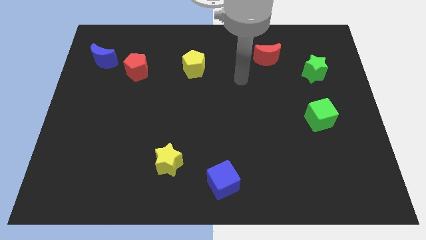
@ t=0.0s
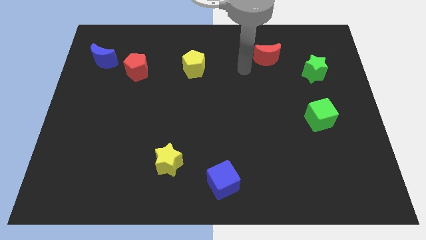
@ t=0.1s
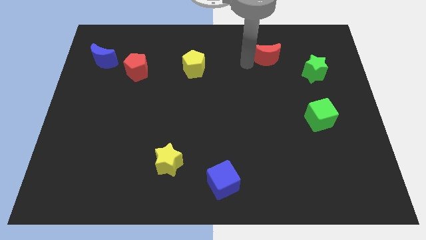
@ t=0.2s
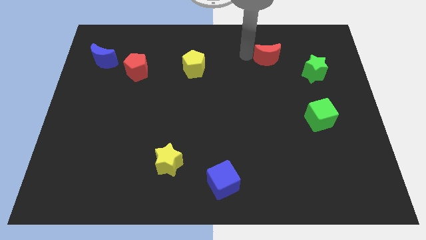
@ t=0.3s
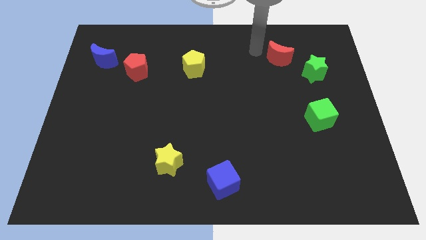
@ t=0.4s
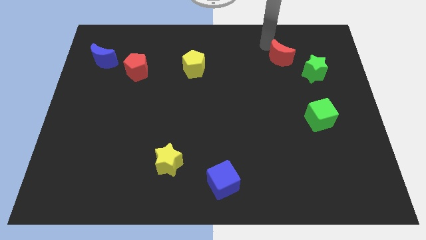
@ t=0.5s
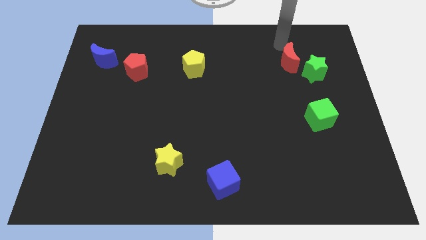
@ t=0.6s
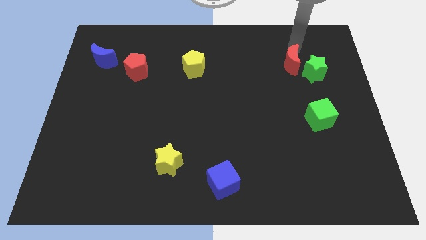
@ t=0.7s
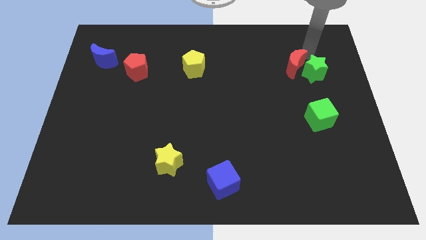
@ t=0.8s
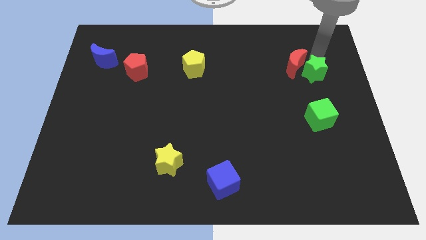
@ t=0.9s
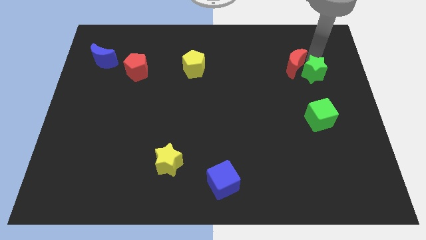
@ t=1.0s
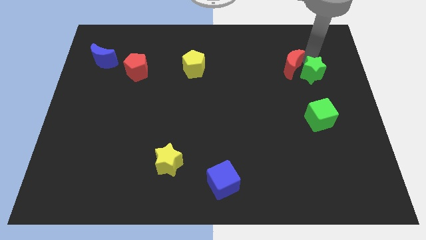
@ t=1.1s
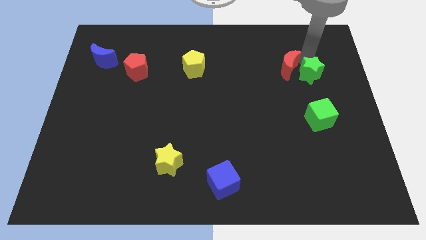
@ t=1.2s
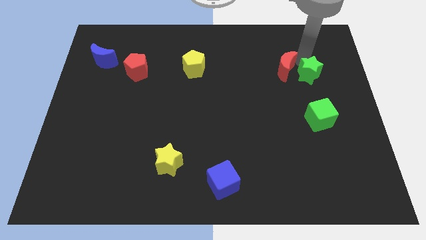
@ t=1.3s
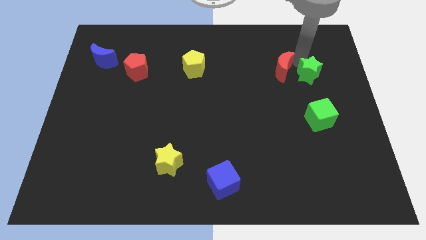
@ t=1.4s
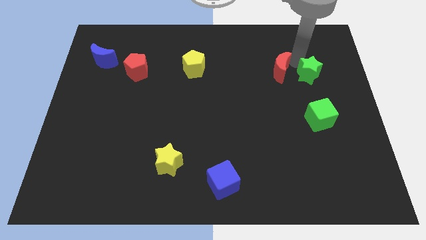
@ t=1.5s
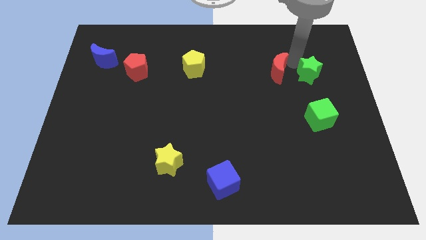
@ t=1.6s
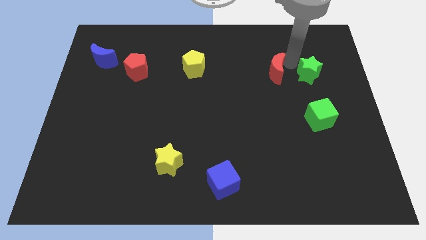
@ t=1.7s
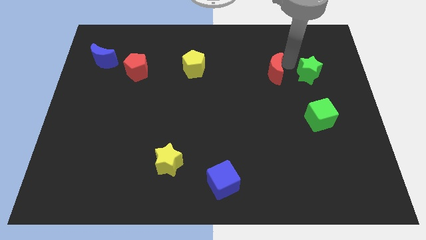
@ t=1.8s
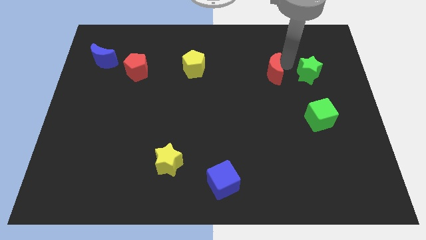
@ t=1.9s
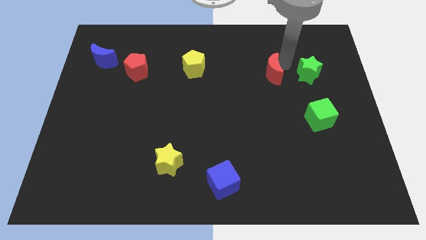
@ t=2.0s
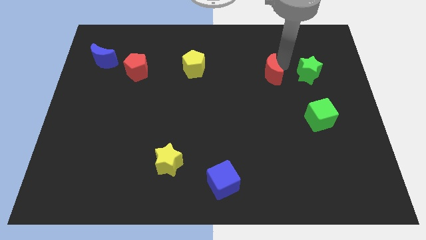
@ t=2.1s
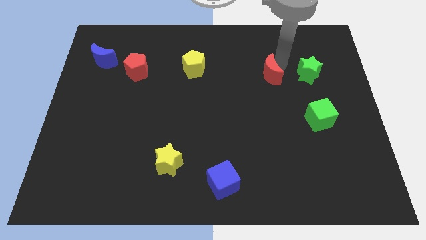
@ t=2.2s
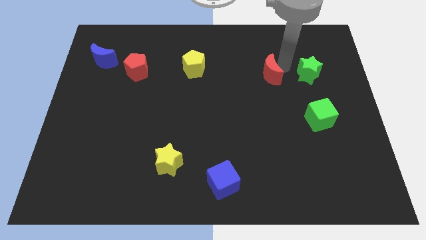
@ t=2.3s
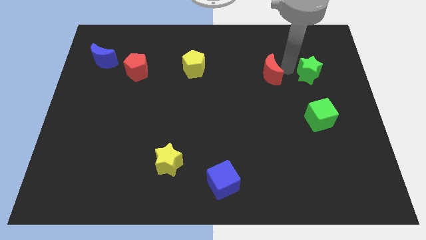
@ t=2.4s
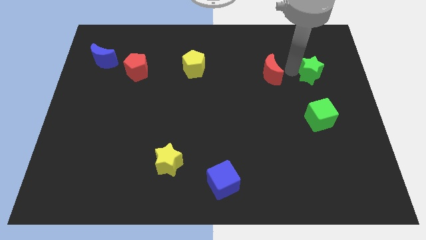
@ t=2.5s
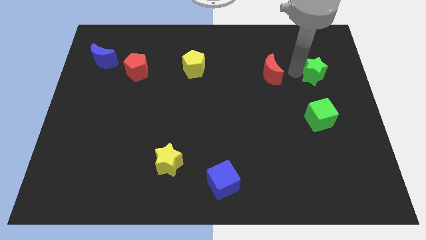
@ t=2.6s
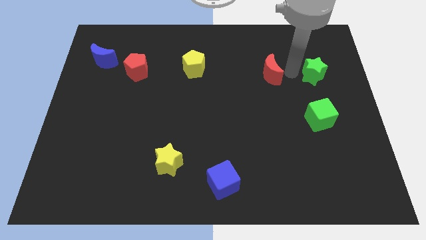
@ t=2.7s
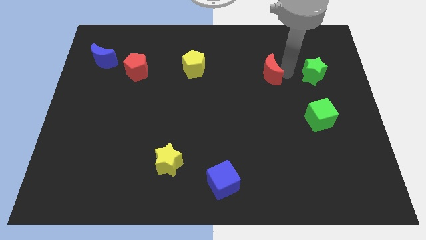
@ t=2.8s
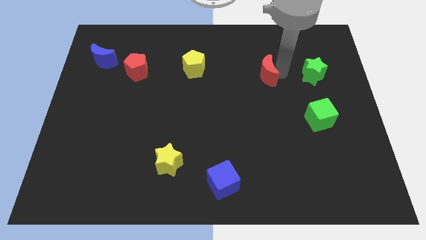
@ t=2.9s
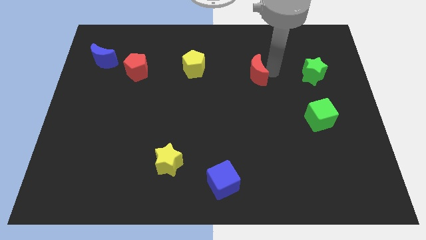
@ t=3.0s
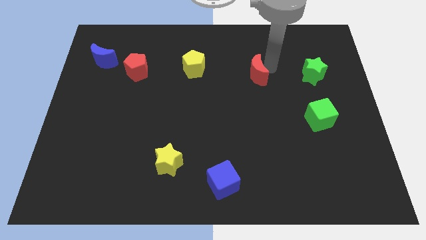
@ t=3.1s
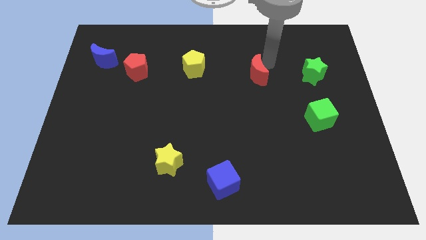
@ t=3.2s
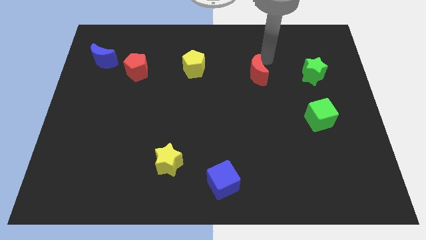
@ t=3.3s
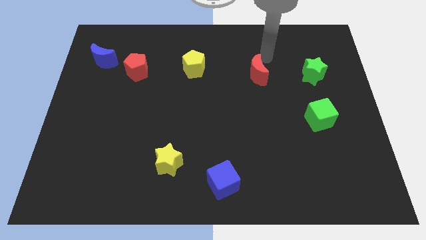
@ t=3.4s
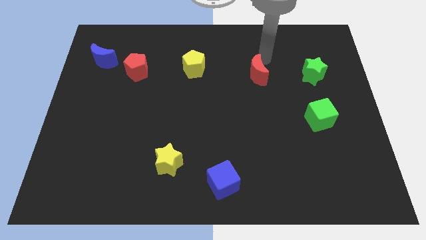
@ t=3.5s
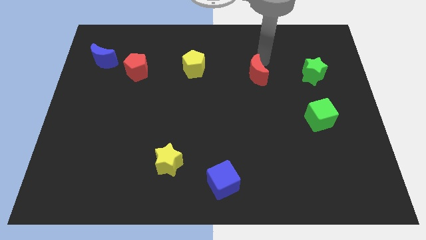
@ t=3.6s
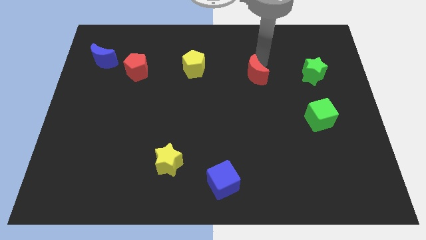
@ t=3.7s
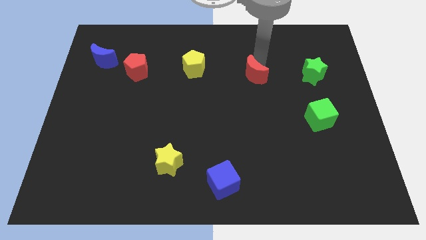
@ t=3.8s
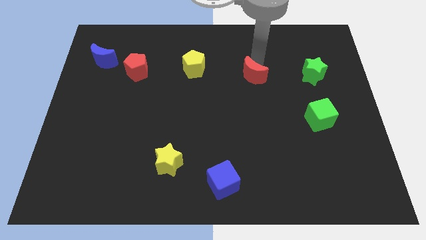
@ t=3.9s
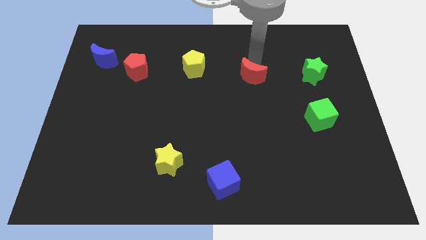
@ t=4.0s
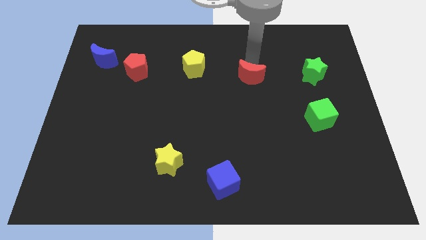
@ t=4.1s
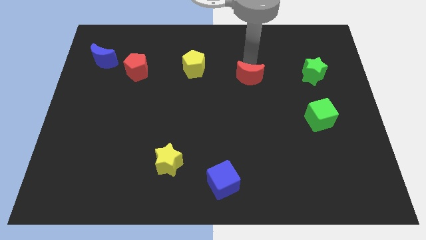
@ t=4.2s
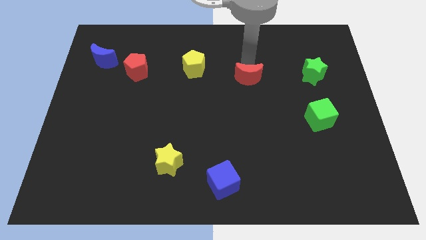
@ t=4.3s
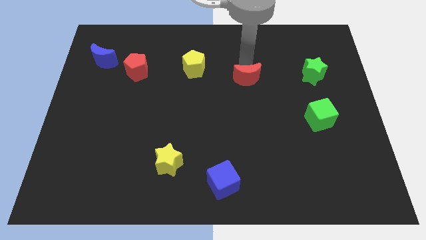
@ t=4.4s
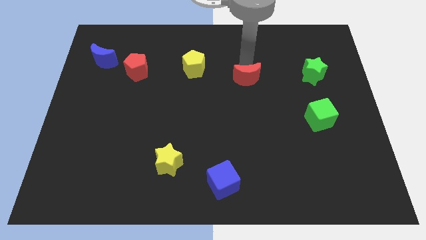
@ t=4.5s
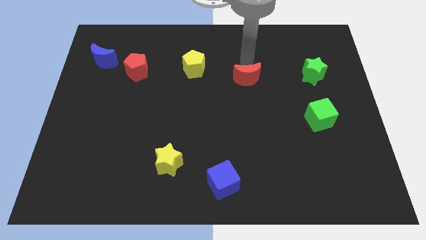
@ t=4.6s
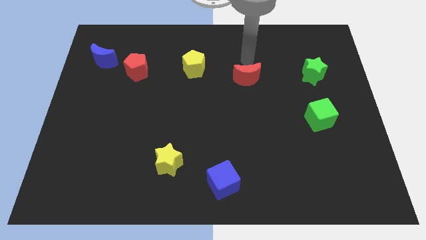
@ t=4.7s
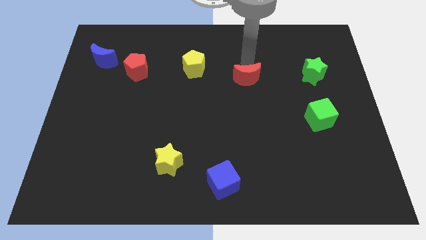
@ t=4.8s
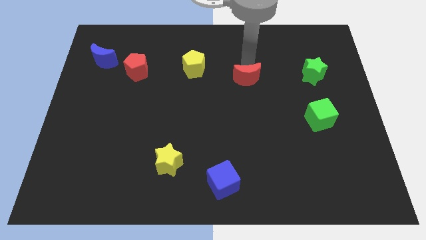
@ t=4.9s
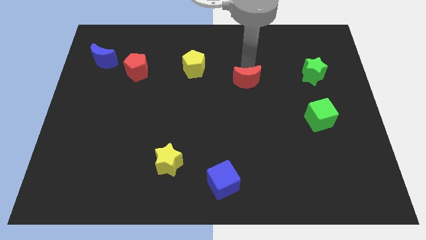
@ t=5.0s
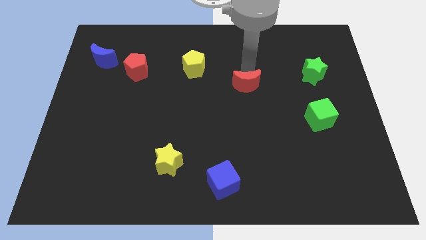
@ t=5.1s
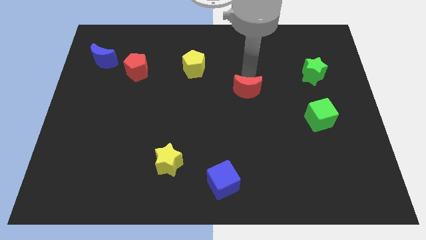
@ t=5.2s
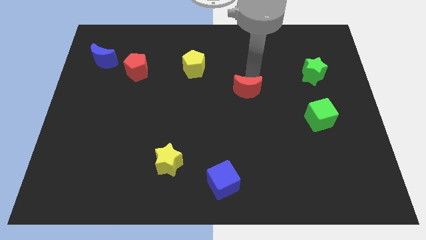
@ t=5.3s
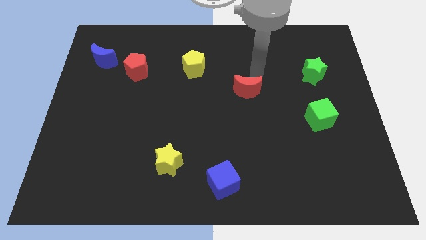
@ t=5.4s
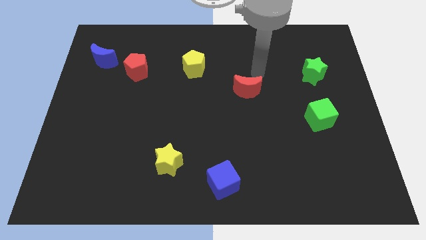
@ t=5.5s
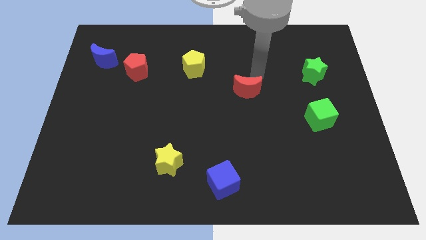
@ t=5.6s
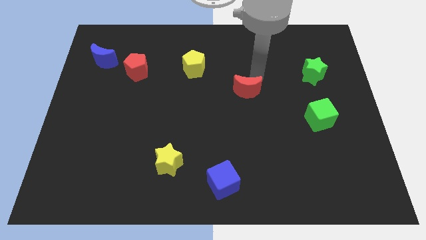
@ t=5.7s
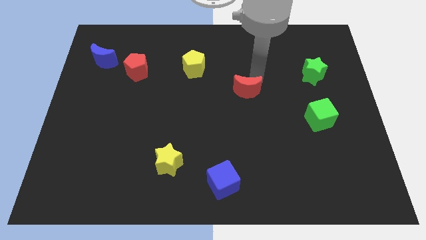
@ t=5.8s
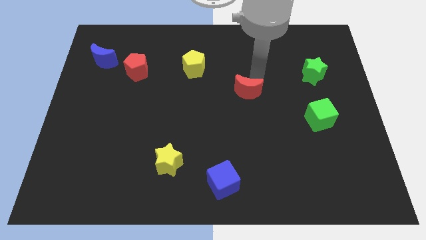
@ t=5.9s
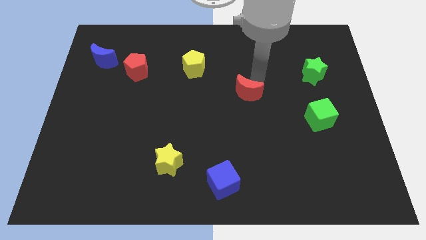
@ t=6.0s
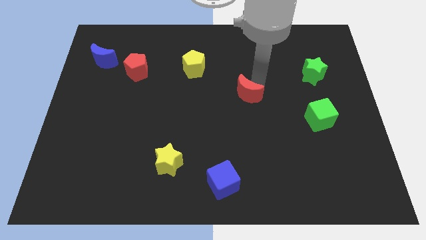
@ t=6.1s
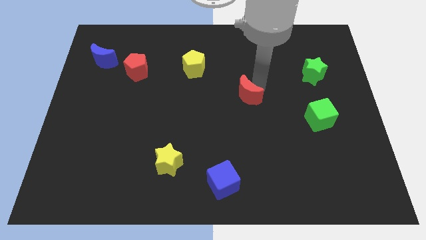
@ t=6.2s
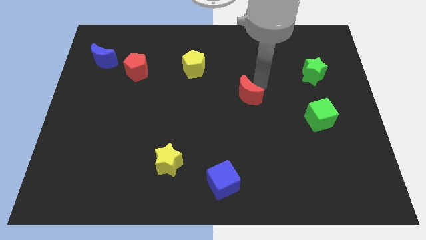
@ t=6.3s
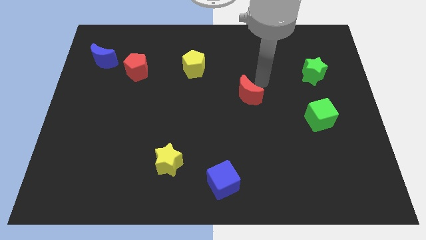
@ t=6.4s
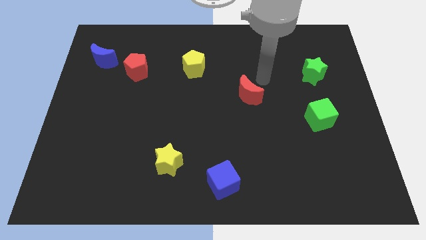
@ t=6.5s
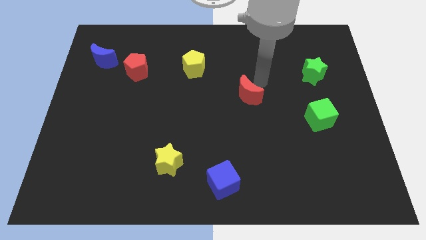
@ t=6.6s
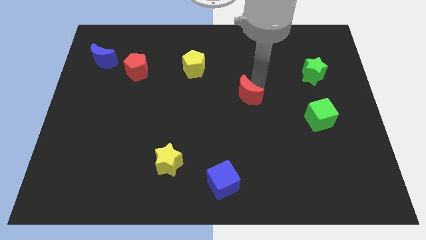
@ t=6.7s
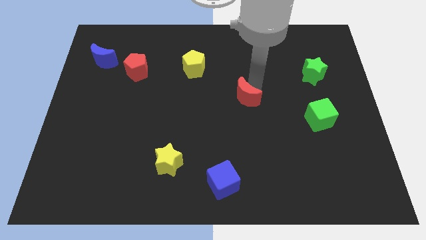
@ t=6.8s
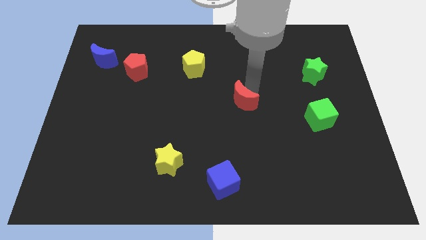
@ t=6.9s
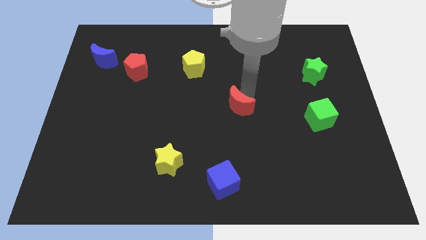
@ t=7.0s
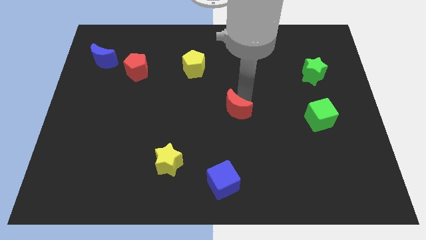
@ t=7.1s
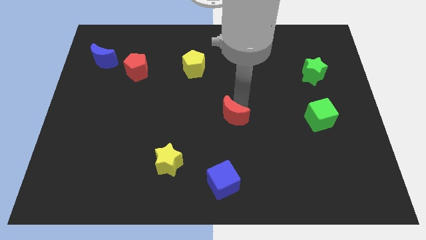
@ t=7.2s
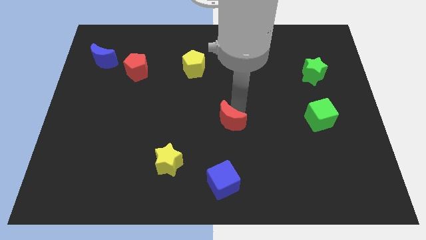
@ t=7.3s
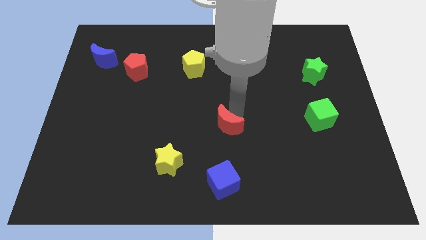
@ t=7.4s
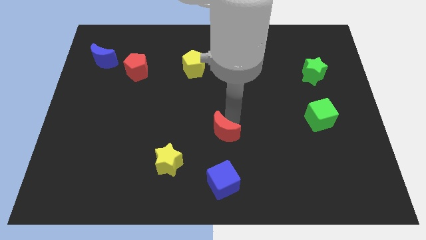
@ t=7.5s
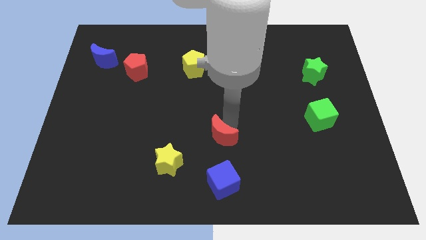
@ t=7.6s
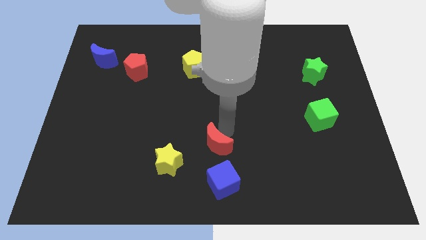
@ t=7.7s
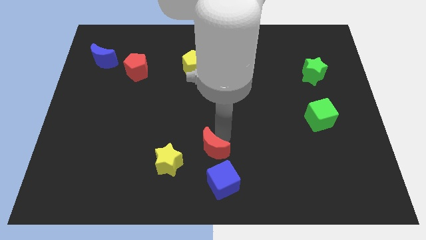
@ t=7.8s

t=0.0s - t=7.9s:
put the red moon to the top left side of the blue cube
